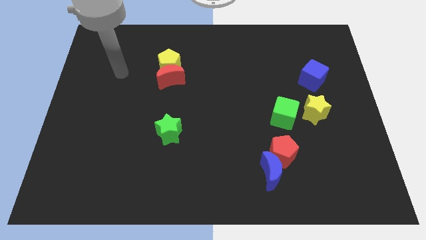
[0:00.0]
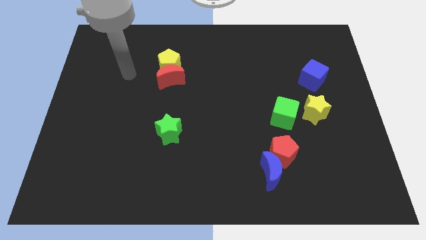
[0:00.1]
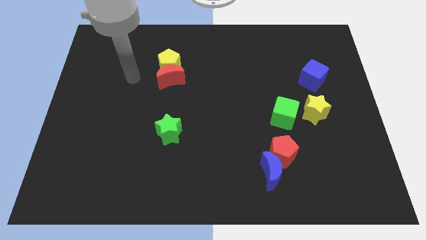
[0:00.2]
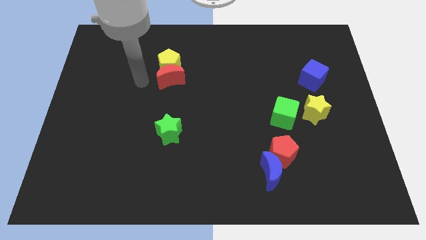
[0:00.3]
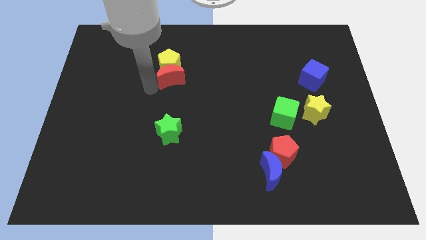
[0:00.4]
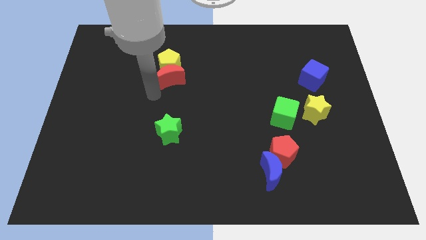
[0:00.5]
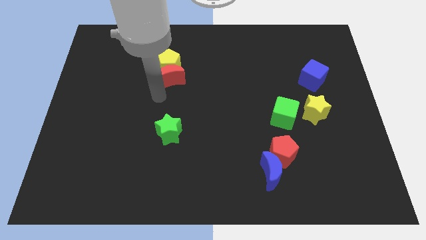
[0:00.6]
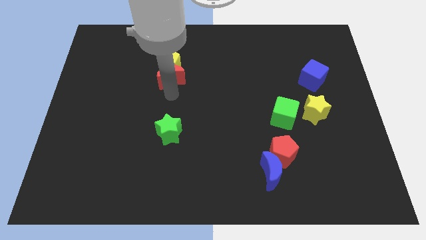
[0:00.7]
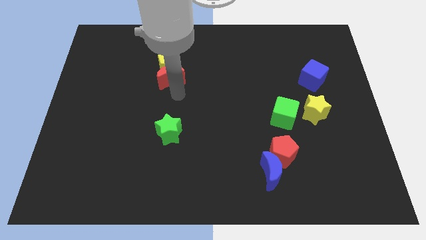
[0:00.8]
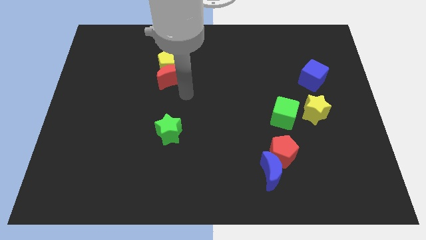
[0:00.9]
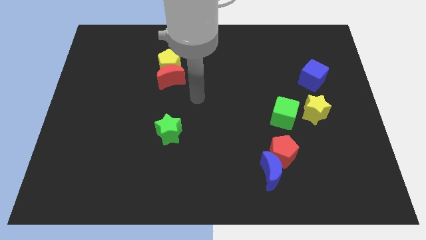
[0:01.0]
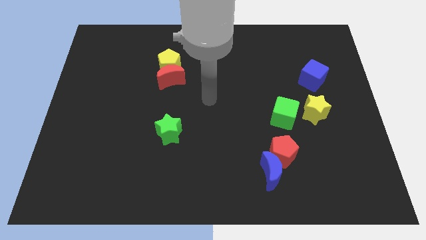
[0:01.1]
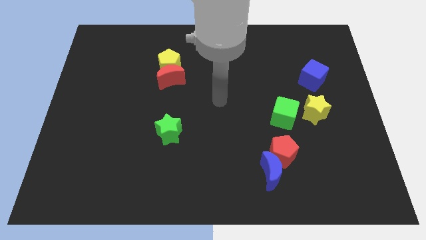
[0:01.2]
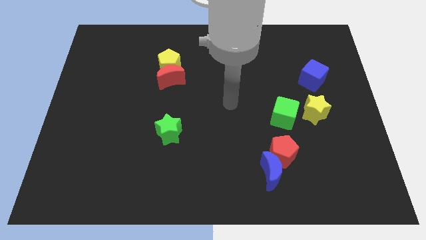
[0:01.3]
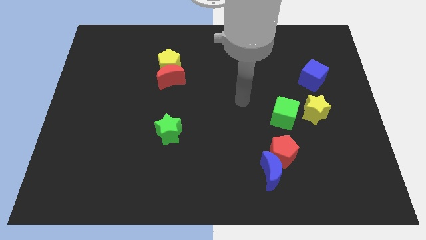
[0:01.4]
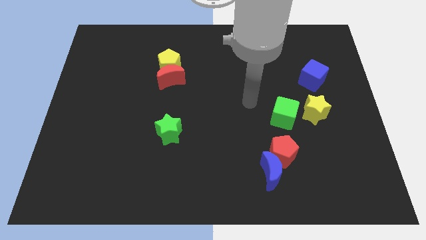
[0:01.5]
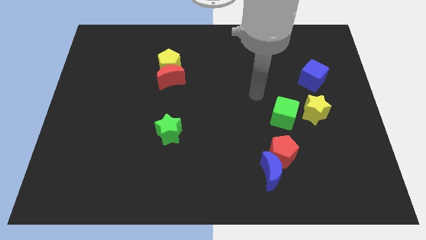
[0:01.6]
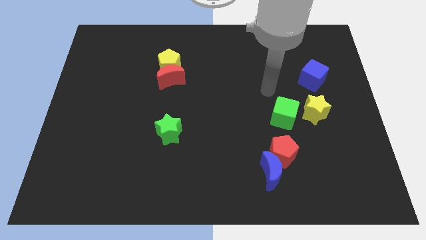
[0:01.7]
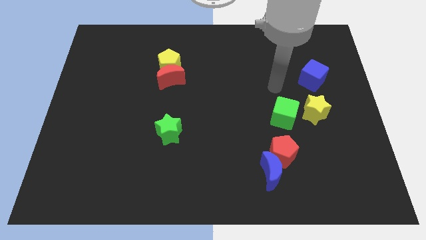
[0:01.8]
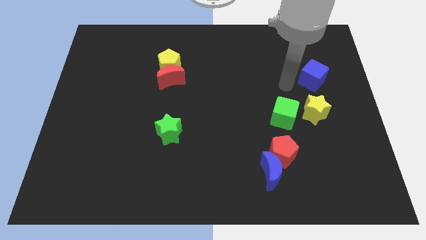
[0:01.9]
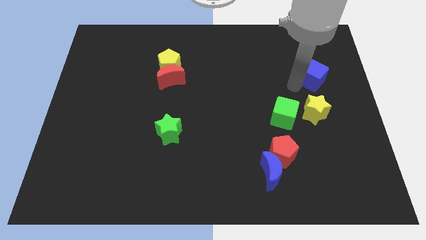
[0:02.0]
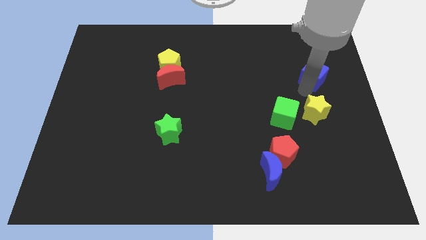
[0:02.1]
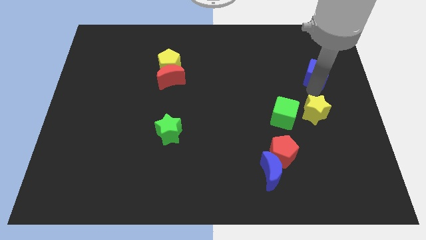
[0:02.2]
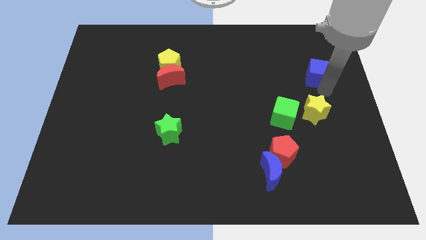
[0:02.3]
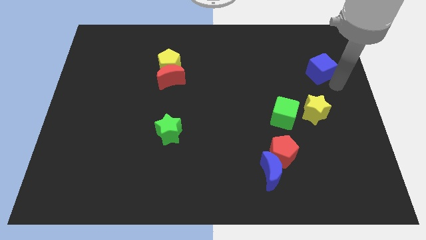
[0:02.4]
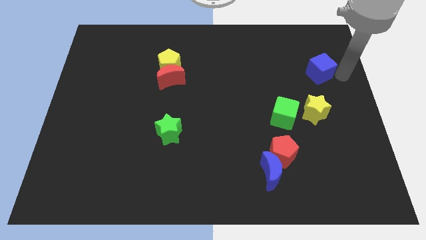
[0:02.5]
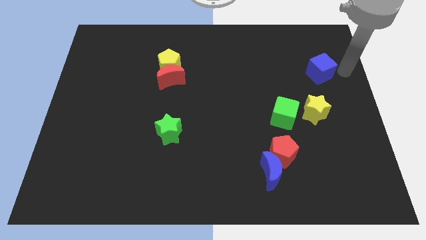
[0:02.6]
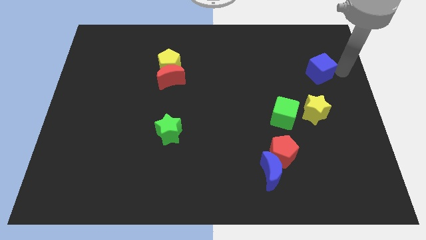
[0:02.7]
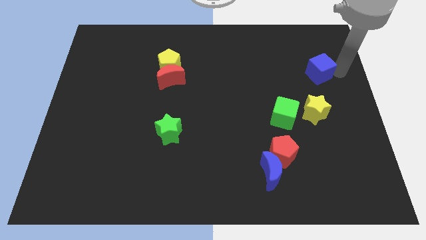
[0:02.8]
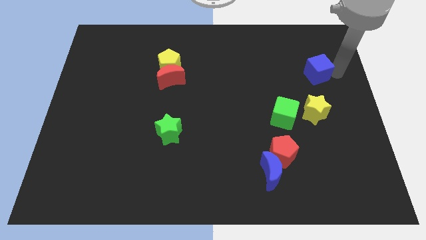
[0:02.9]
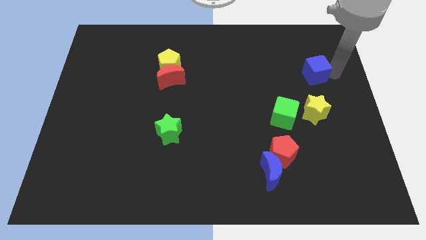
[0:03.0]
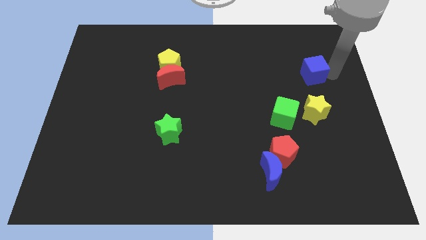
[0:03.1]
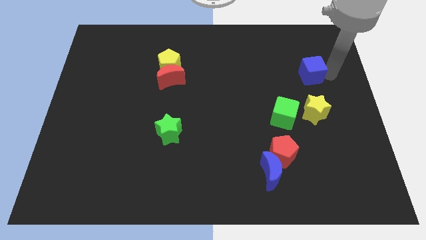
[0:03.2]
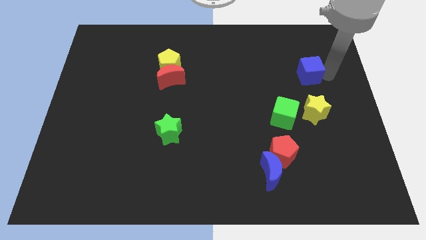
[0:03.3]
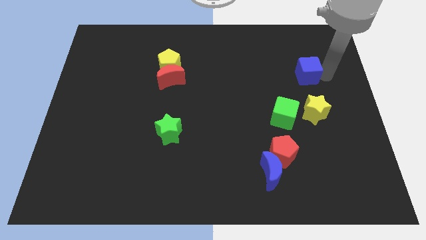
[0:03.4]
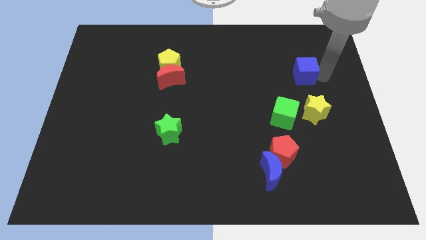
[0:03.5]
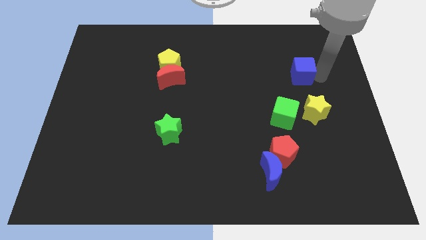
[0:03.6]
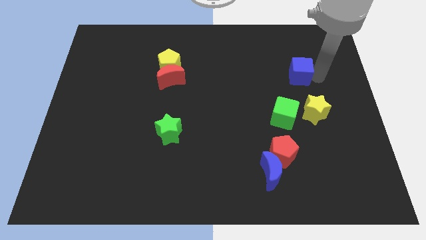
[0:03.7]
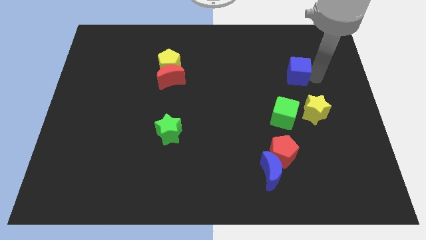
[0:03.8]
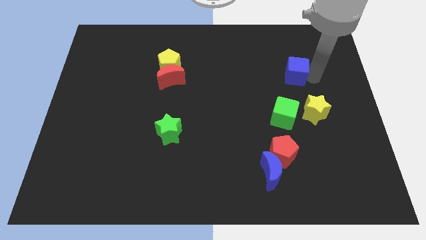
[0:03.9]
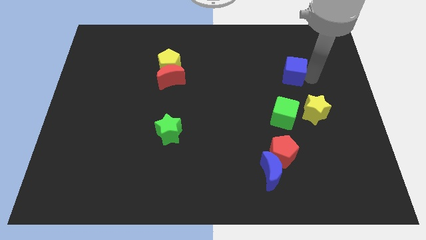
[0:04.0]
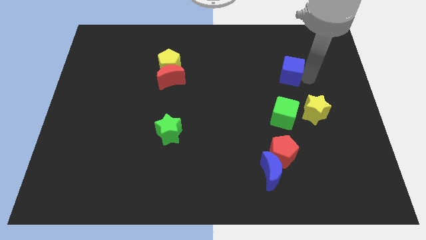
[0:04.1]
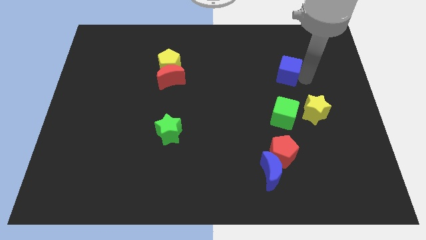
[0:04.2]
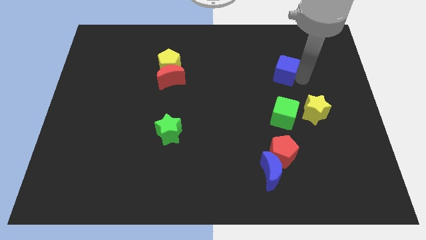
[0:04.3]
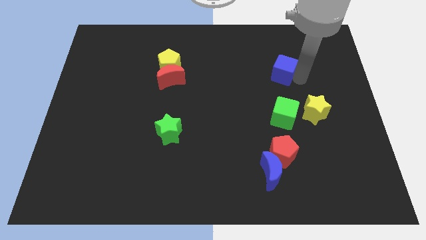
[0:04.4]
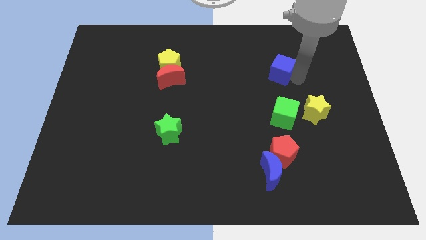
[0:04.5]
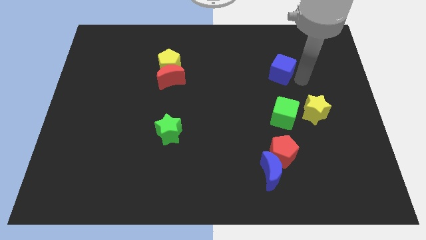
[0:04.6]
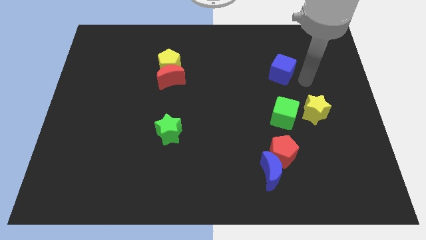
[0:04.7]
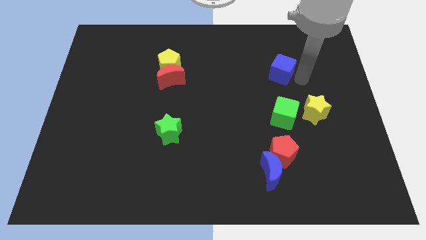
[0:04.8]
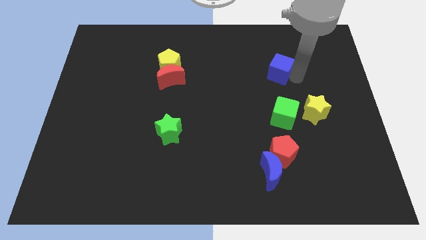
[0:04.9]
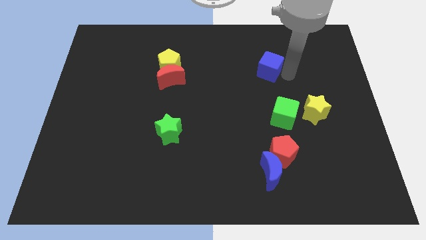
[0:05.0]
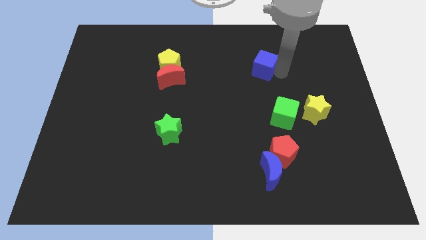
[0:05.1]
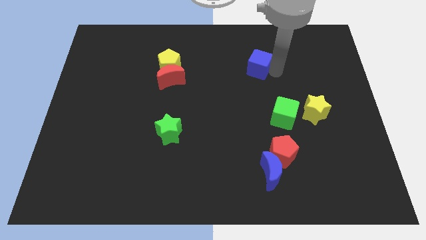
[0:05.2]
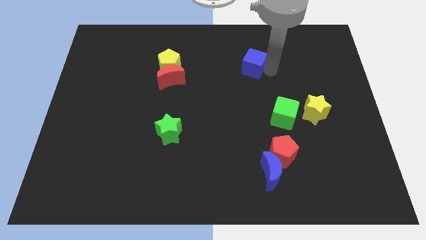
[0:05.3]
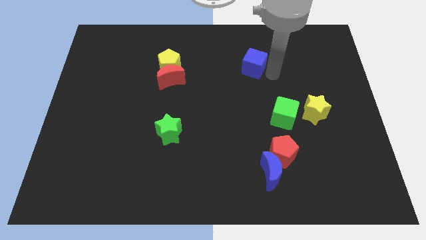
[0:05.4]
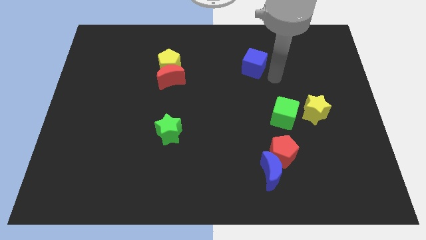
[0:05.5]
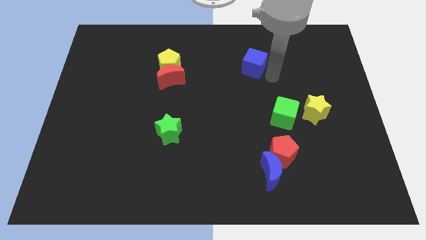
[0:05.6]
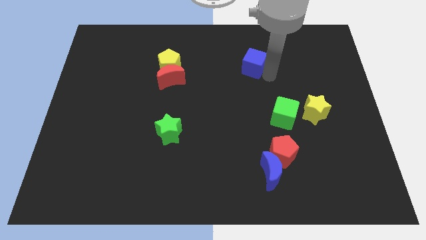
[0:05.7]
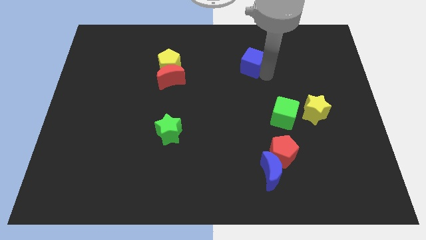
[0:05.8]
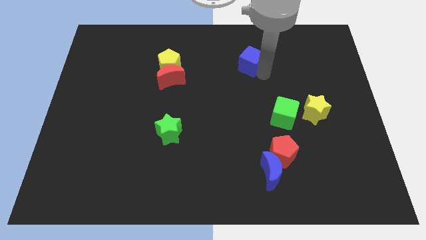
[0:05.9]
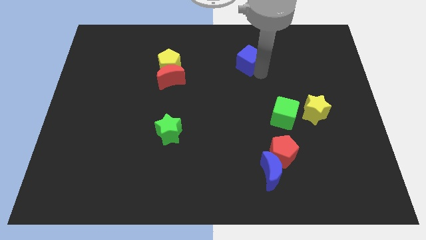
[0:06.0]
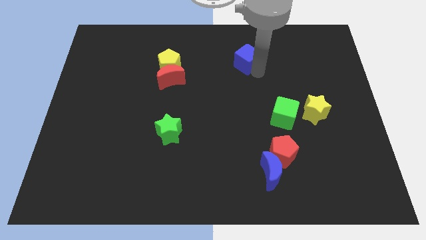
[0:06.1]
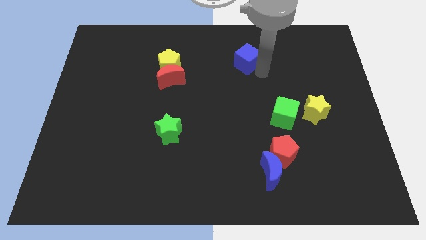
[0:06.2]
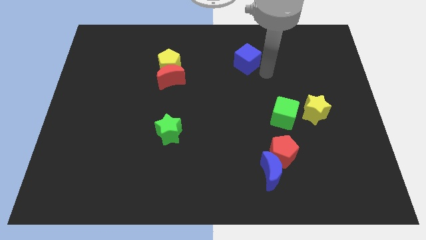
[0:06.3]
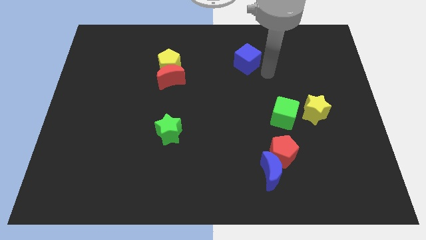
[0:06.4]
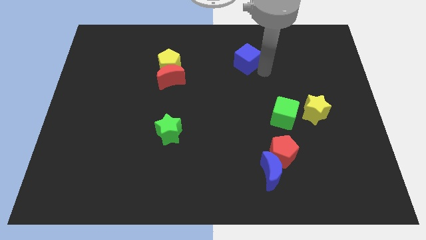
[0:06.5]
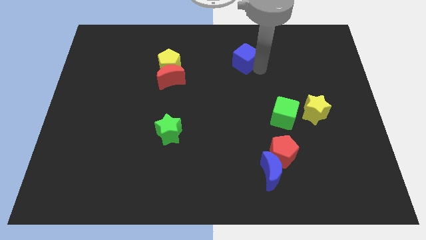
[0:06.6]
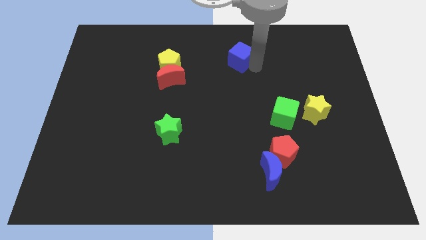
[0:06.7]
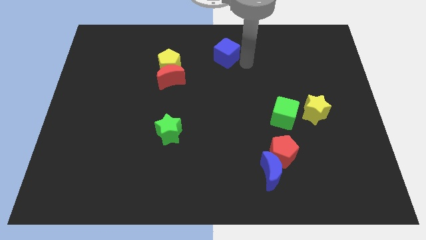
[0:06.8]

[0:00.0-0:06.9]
put the blue cube to the towards your base
